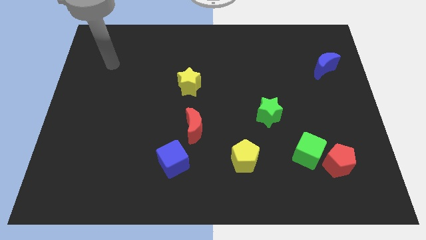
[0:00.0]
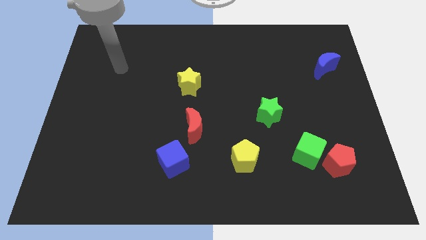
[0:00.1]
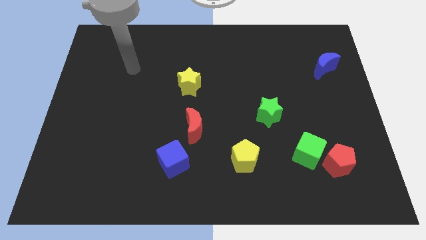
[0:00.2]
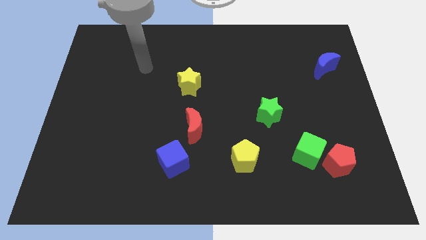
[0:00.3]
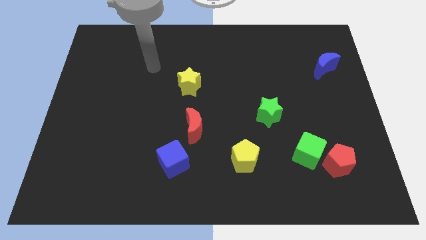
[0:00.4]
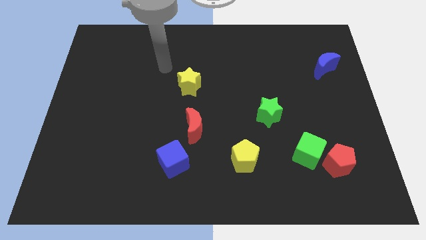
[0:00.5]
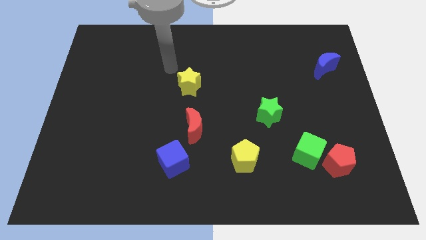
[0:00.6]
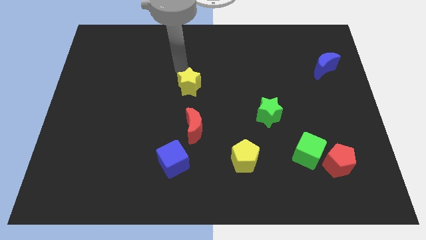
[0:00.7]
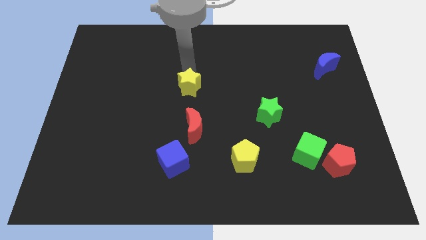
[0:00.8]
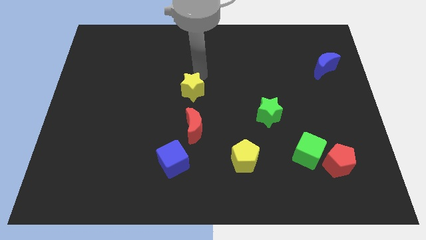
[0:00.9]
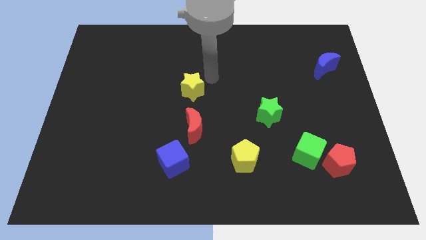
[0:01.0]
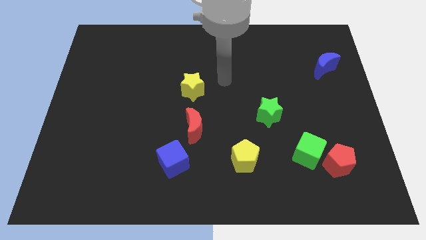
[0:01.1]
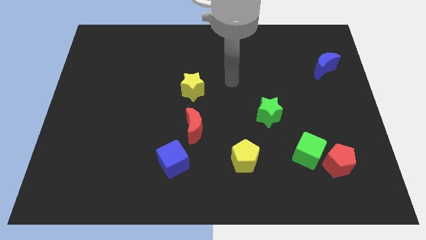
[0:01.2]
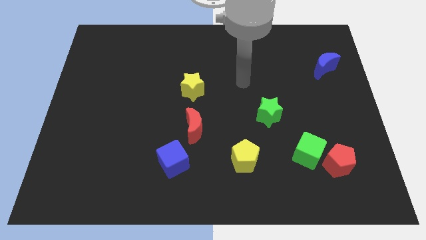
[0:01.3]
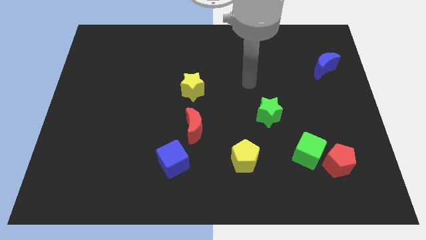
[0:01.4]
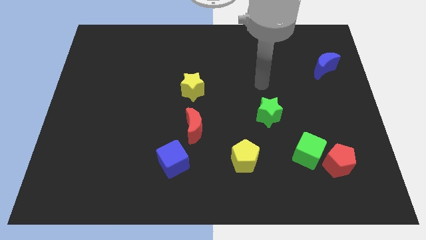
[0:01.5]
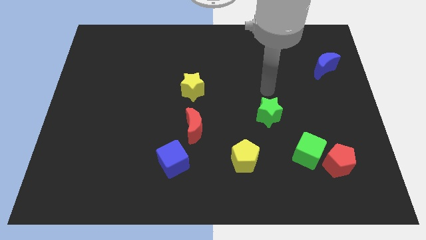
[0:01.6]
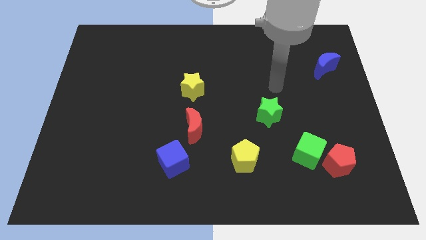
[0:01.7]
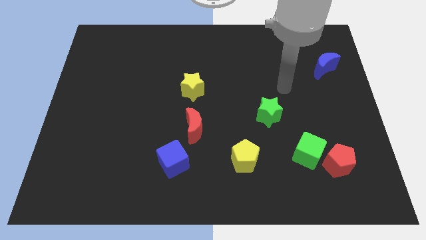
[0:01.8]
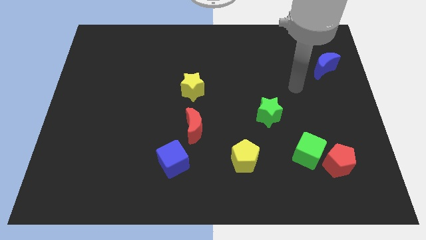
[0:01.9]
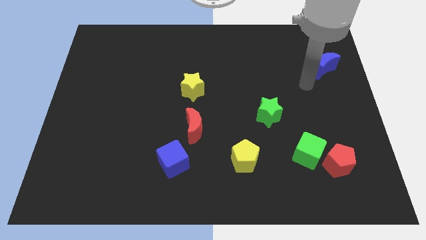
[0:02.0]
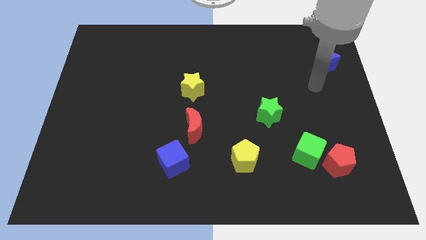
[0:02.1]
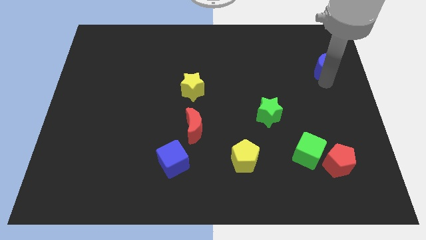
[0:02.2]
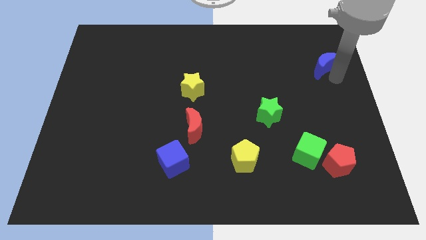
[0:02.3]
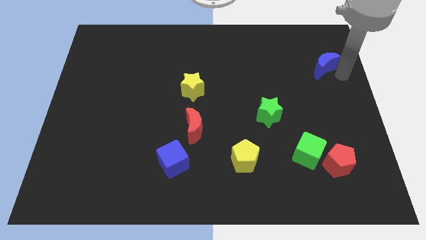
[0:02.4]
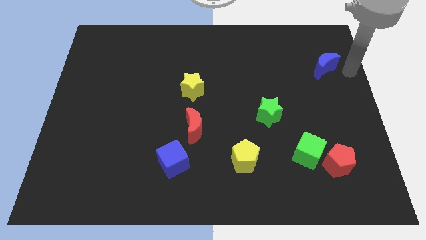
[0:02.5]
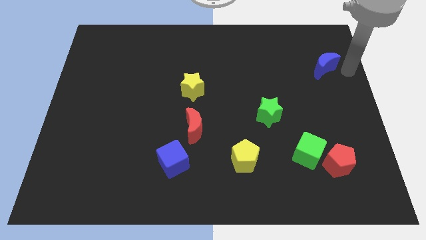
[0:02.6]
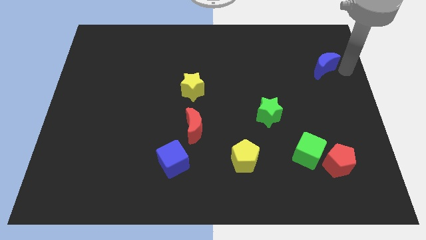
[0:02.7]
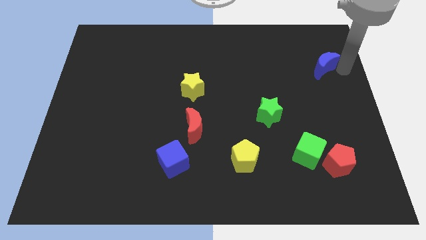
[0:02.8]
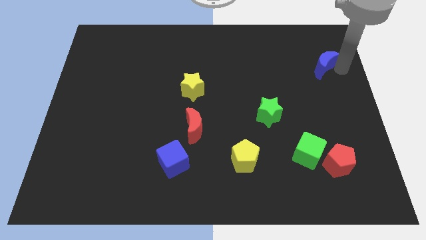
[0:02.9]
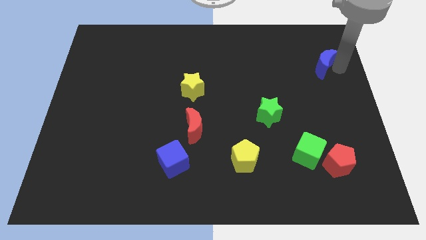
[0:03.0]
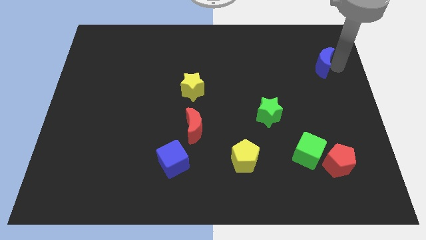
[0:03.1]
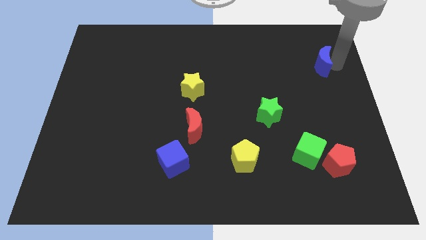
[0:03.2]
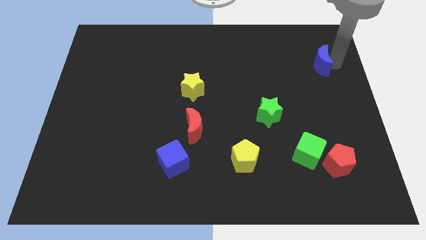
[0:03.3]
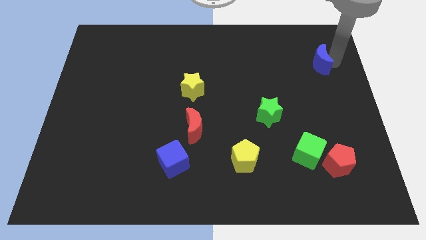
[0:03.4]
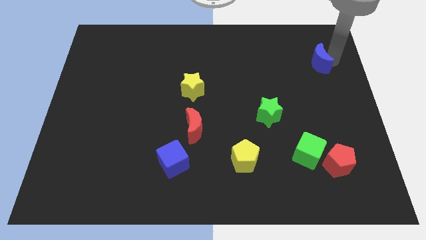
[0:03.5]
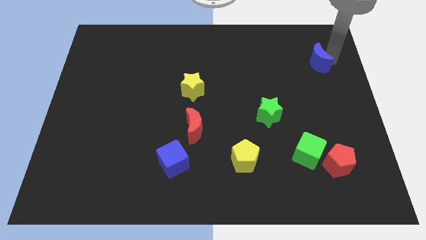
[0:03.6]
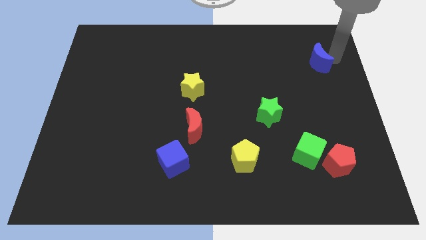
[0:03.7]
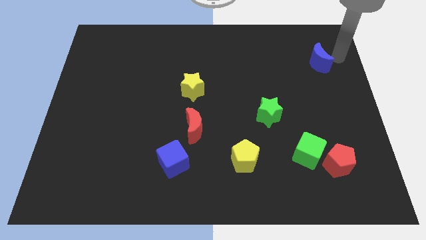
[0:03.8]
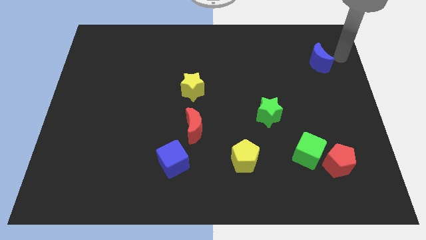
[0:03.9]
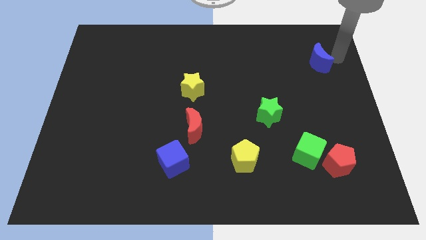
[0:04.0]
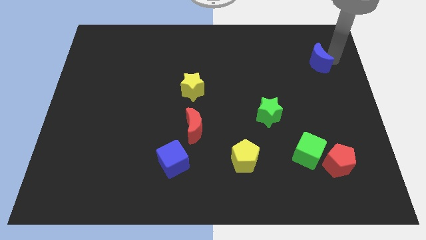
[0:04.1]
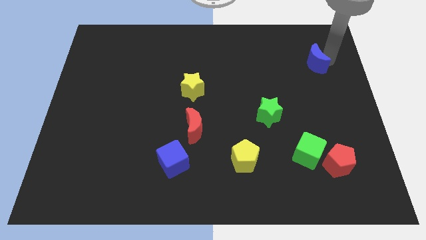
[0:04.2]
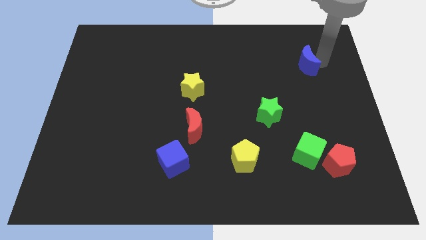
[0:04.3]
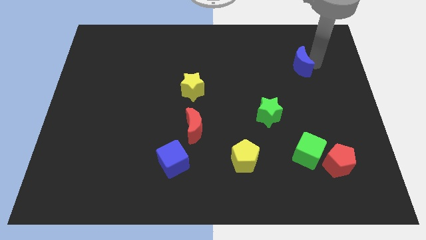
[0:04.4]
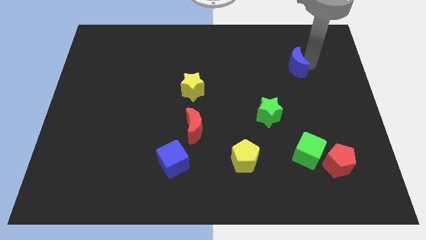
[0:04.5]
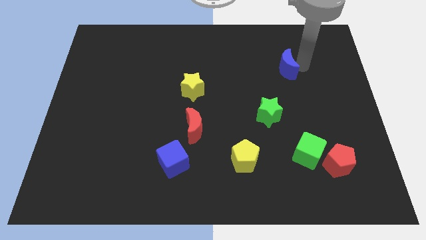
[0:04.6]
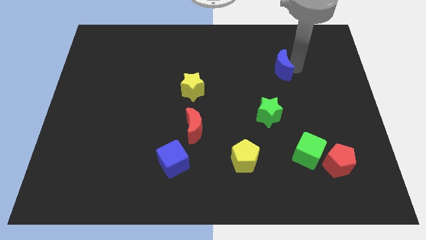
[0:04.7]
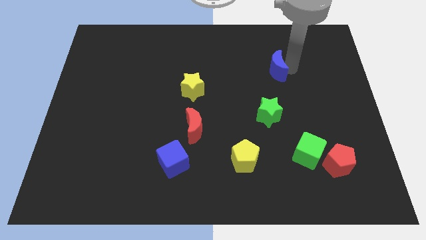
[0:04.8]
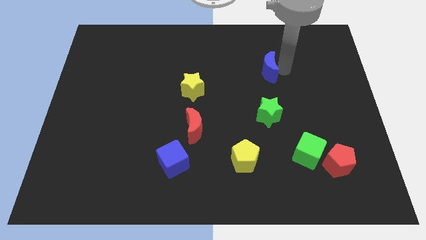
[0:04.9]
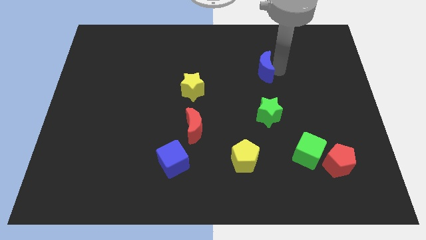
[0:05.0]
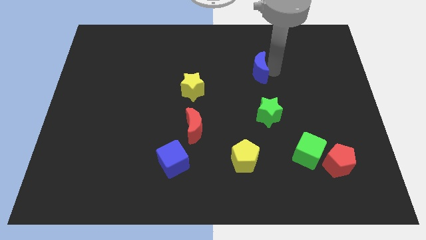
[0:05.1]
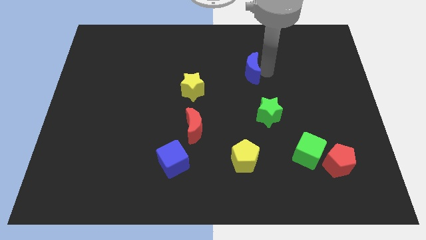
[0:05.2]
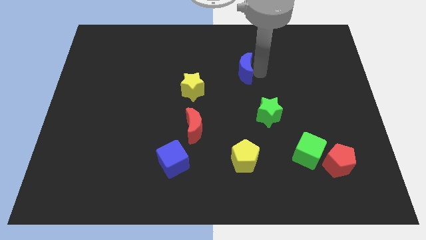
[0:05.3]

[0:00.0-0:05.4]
push the blue moon left

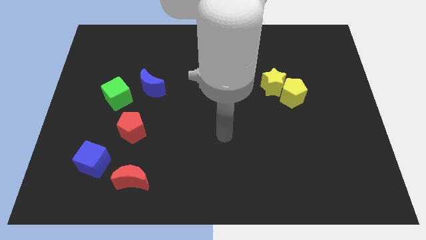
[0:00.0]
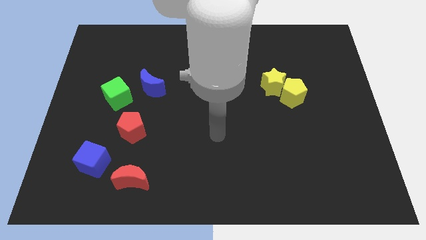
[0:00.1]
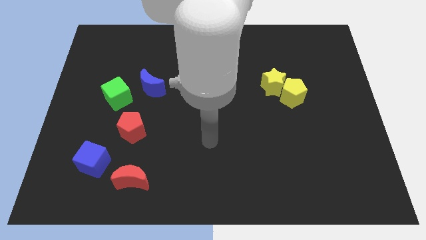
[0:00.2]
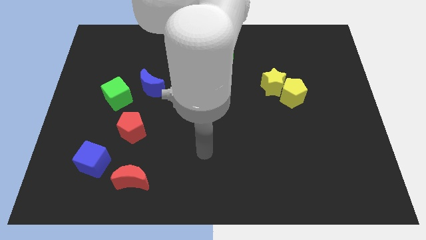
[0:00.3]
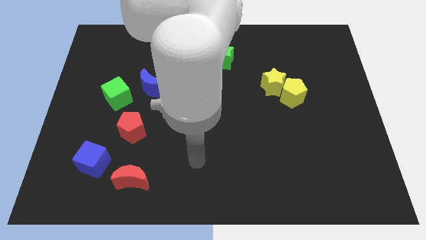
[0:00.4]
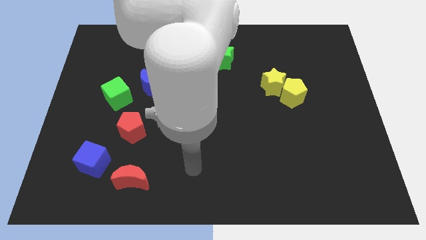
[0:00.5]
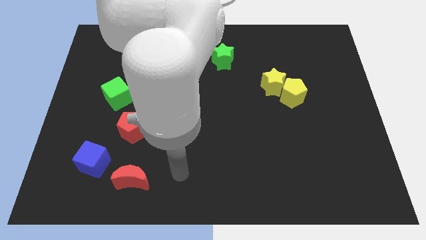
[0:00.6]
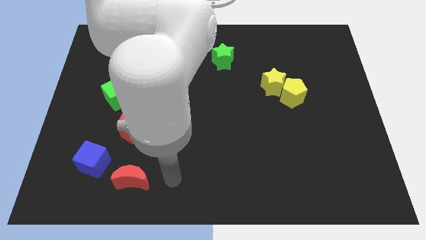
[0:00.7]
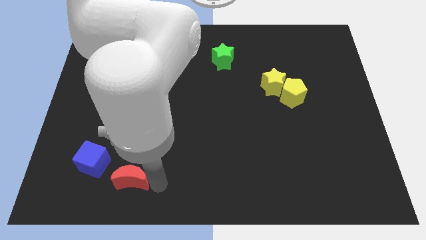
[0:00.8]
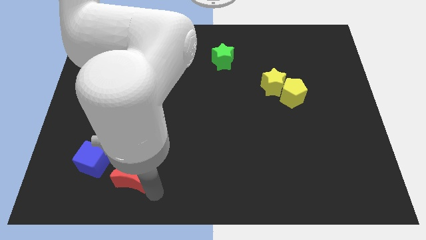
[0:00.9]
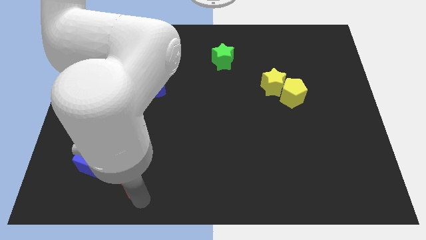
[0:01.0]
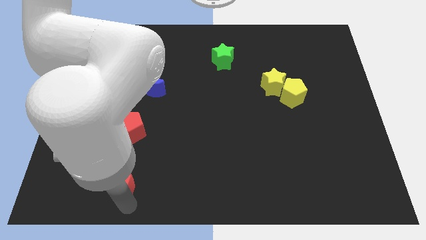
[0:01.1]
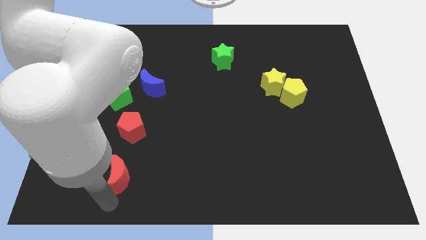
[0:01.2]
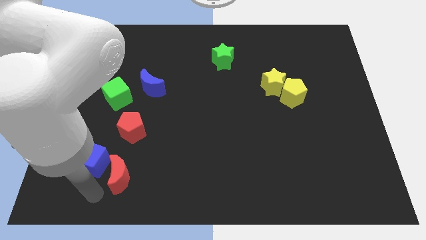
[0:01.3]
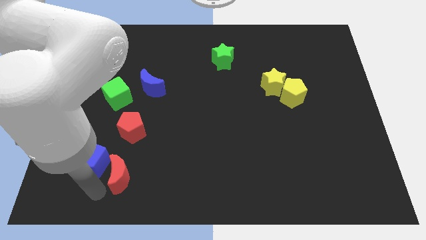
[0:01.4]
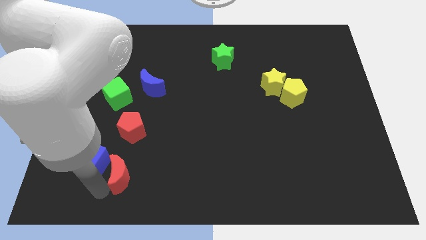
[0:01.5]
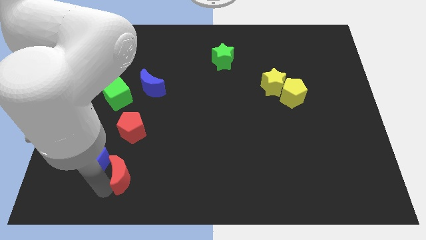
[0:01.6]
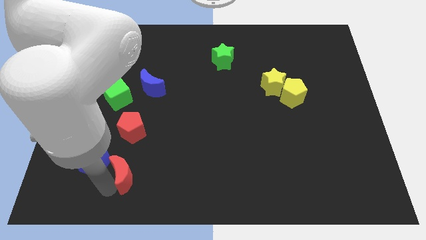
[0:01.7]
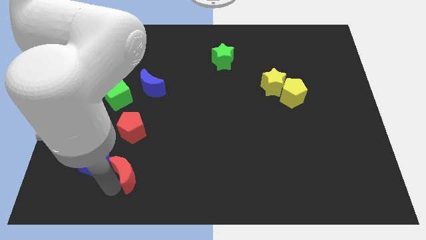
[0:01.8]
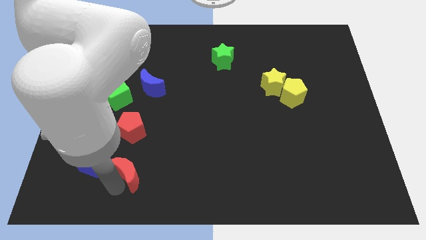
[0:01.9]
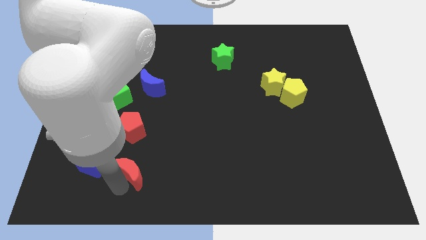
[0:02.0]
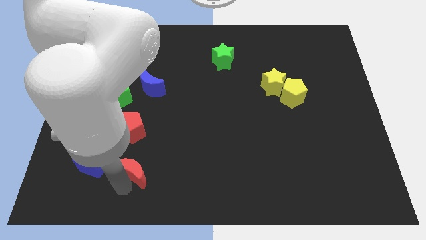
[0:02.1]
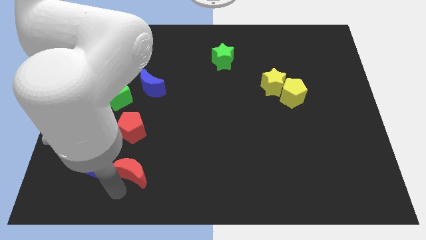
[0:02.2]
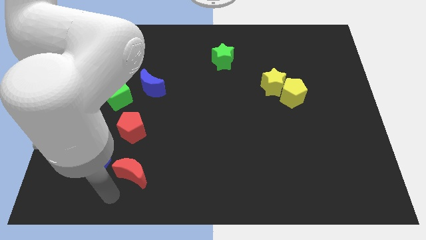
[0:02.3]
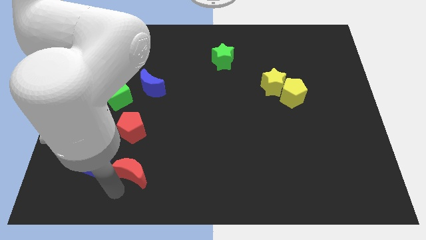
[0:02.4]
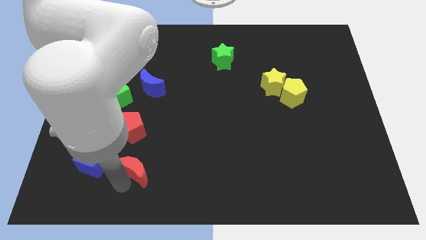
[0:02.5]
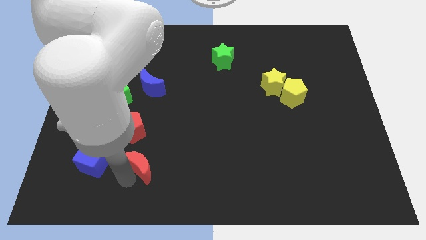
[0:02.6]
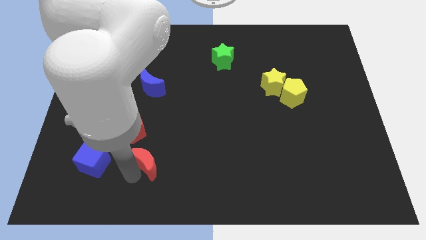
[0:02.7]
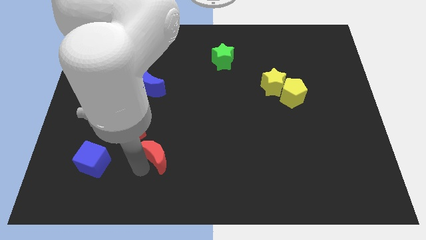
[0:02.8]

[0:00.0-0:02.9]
slide the red moon somewhat up and then to the right
